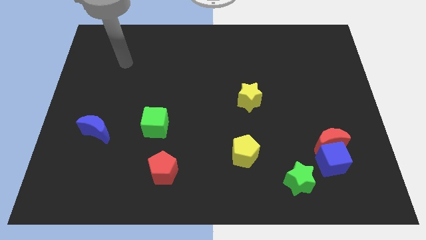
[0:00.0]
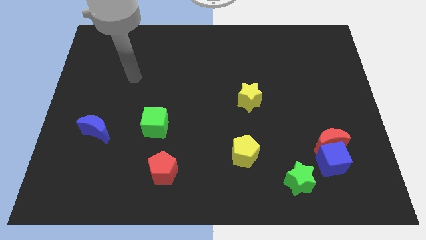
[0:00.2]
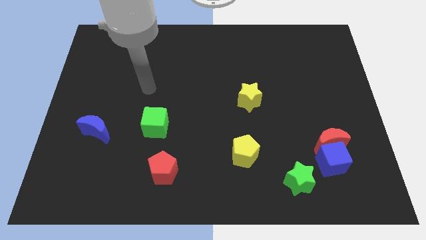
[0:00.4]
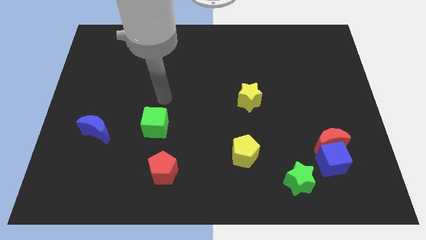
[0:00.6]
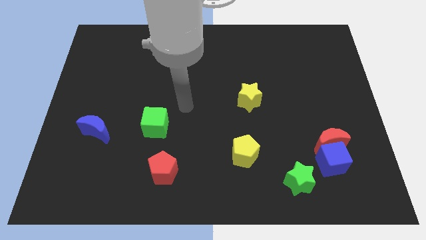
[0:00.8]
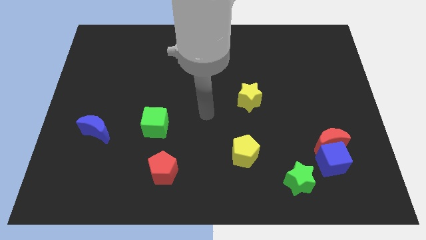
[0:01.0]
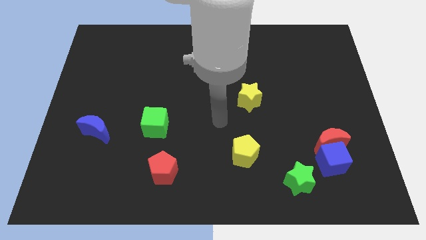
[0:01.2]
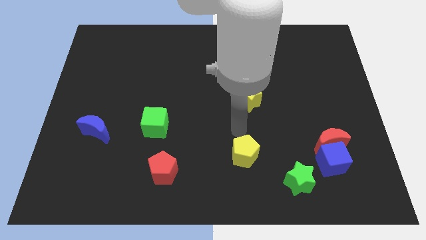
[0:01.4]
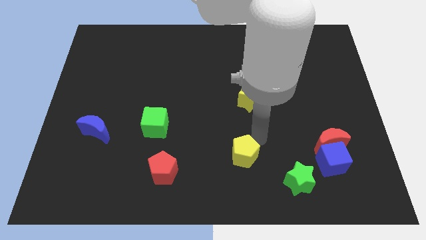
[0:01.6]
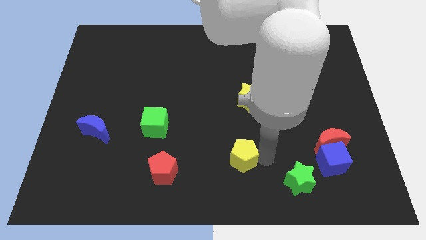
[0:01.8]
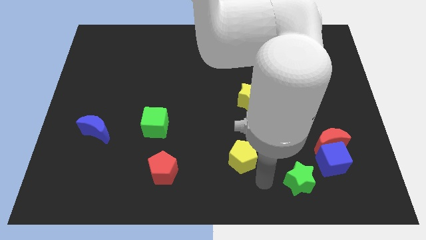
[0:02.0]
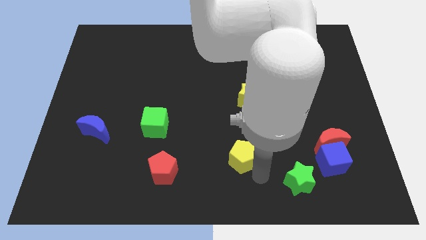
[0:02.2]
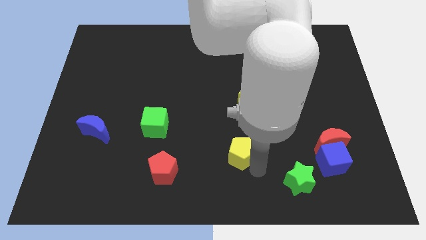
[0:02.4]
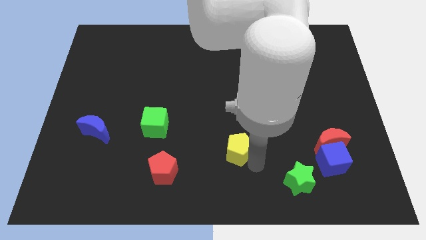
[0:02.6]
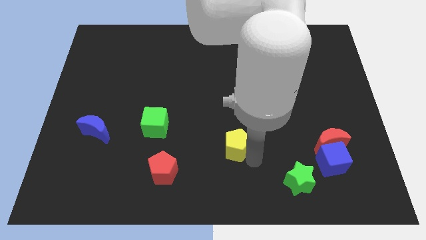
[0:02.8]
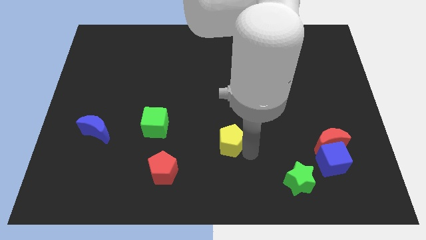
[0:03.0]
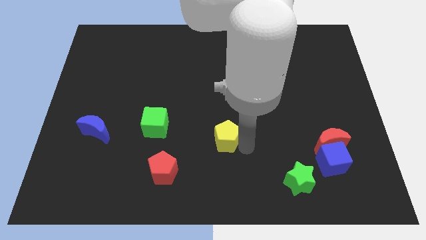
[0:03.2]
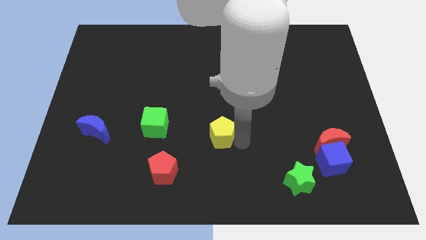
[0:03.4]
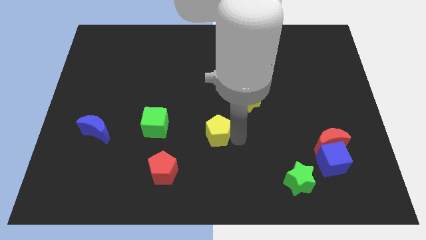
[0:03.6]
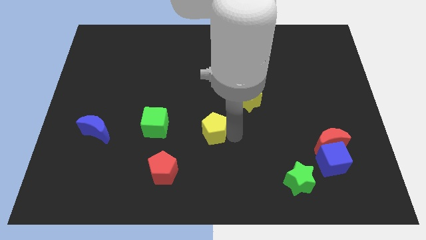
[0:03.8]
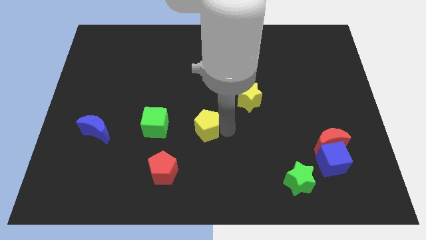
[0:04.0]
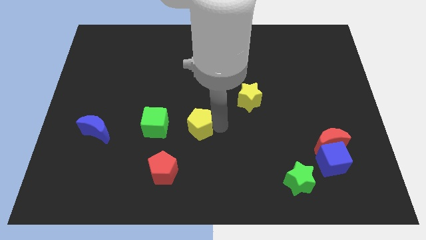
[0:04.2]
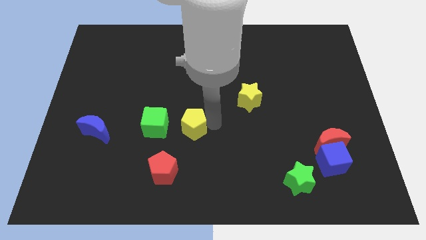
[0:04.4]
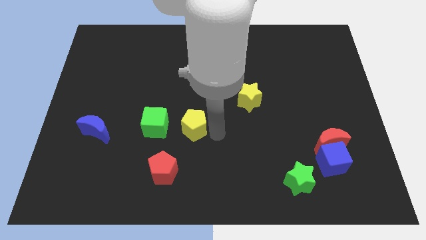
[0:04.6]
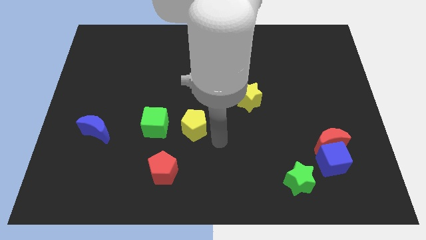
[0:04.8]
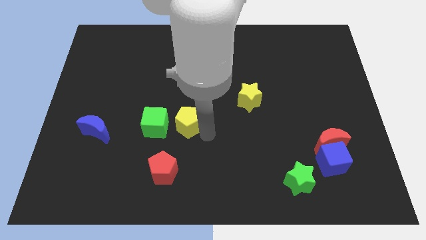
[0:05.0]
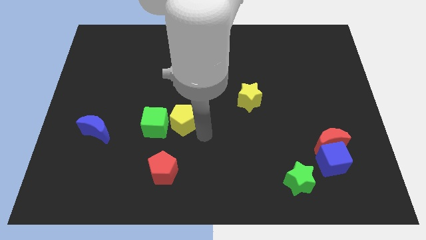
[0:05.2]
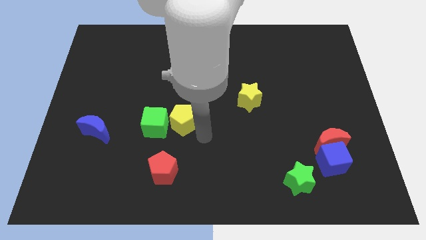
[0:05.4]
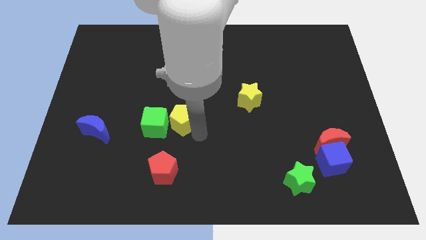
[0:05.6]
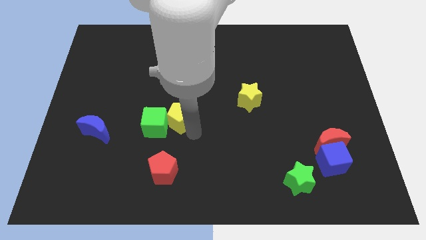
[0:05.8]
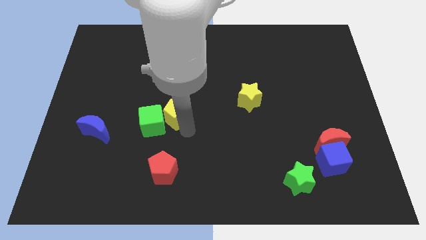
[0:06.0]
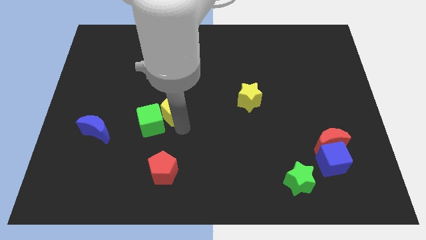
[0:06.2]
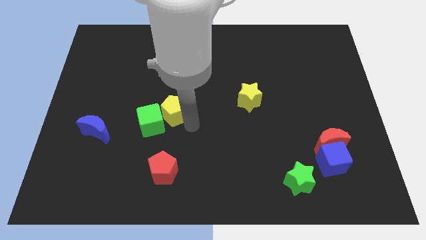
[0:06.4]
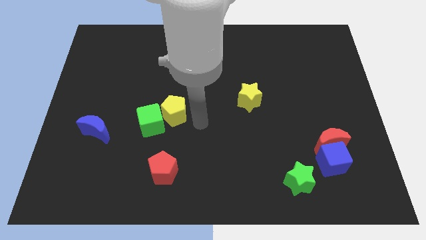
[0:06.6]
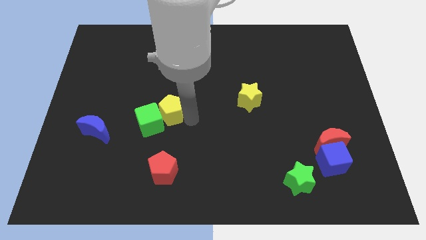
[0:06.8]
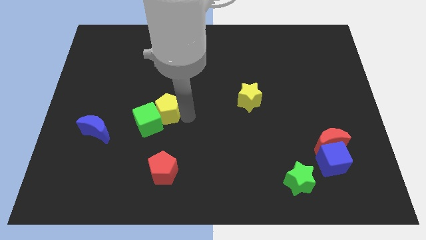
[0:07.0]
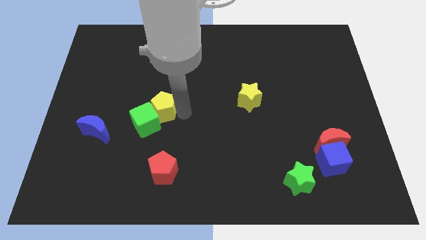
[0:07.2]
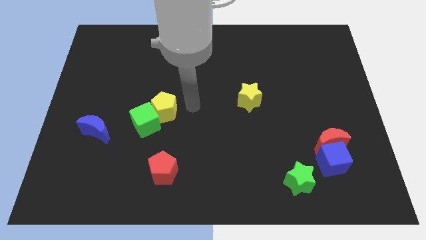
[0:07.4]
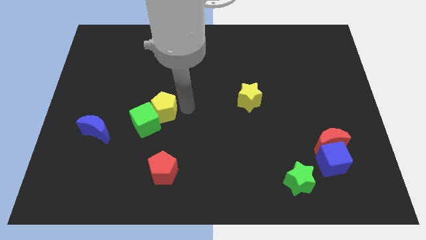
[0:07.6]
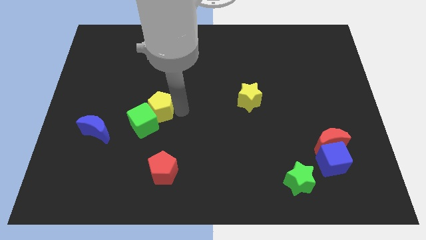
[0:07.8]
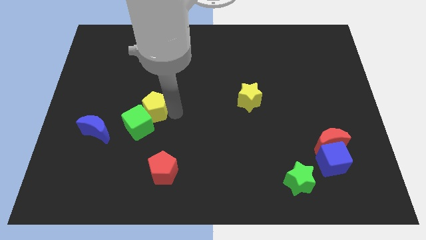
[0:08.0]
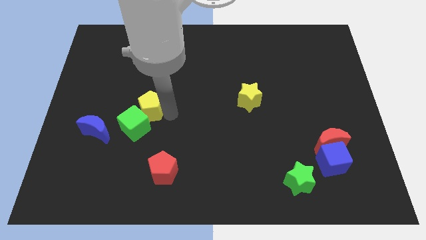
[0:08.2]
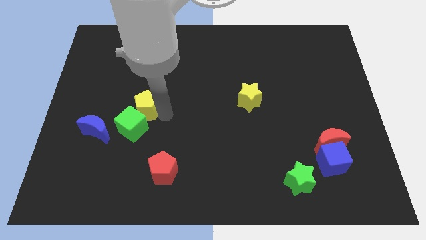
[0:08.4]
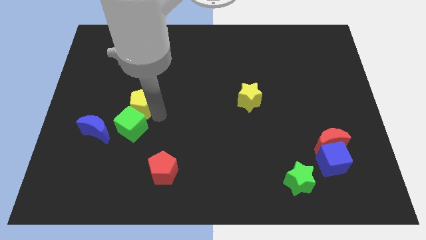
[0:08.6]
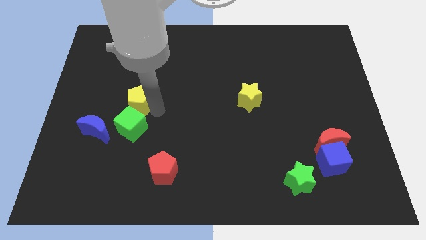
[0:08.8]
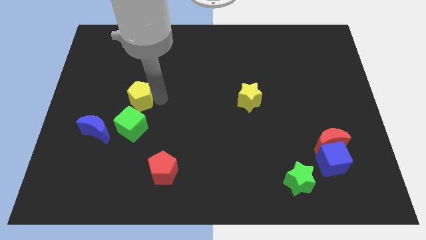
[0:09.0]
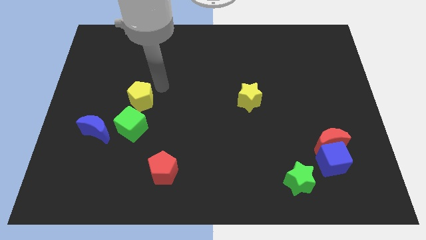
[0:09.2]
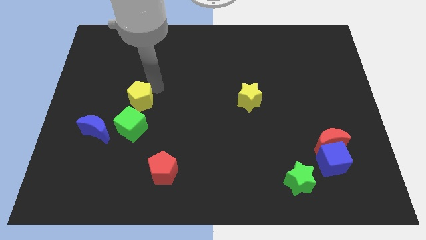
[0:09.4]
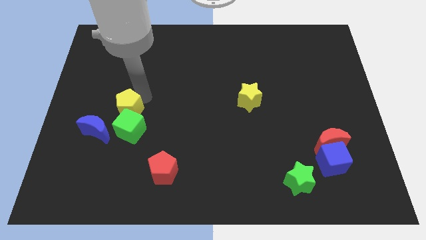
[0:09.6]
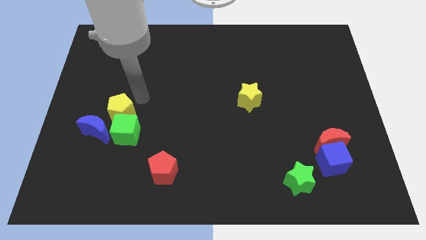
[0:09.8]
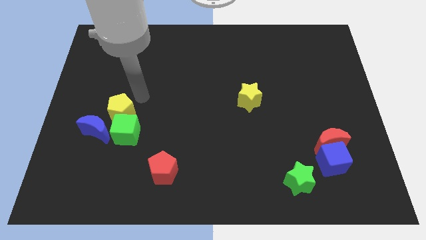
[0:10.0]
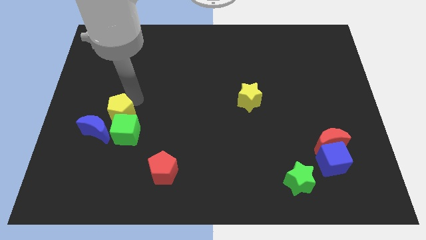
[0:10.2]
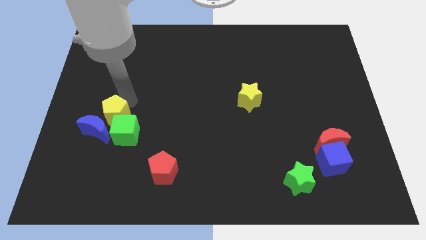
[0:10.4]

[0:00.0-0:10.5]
slide the yellow pentagon close to the blue moon

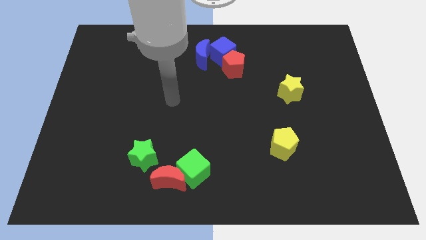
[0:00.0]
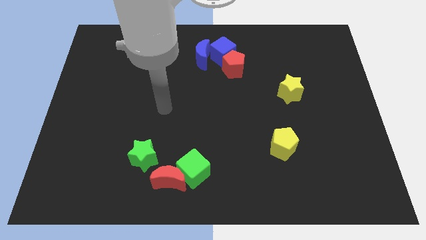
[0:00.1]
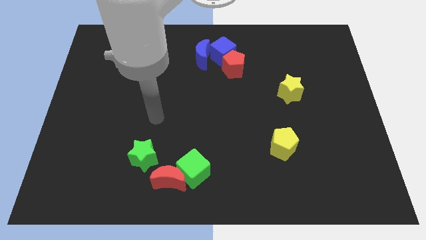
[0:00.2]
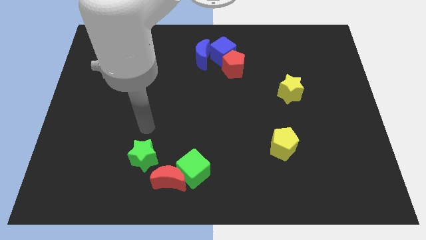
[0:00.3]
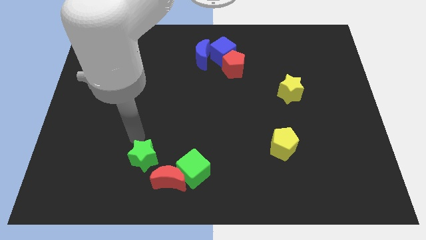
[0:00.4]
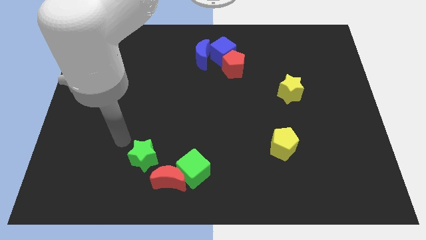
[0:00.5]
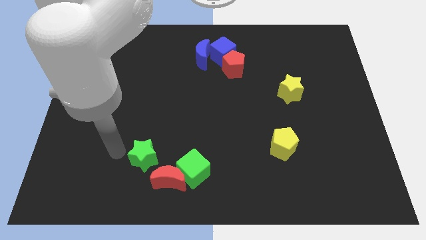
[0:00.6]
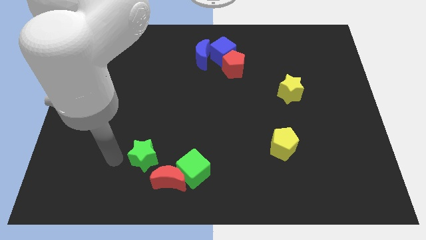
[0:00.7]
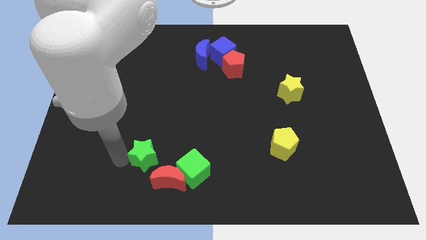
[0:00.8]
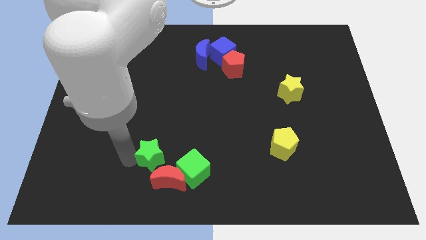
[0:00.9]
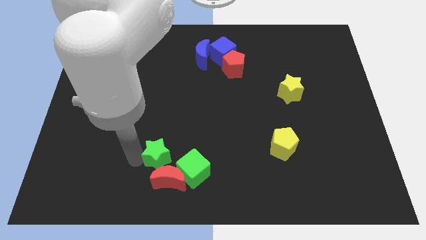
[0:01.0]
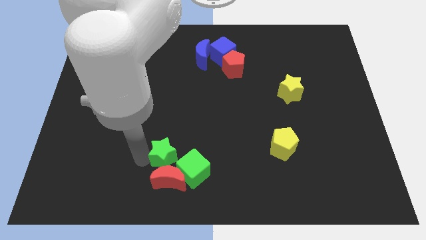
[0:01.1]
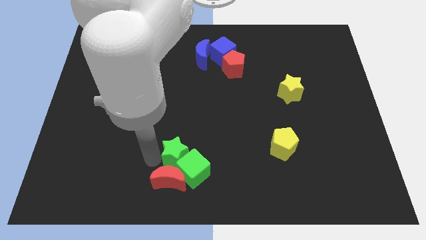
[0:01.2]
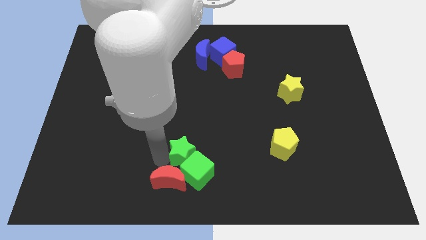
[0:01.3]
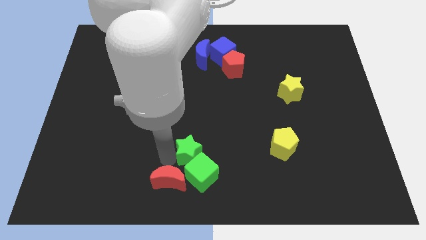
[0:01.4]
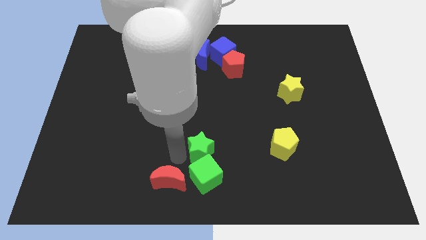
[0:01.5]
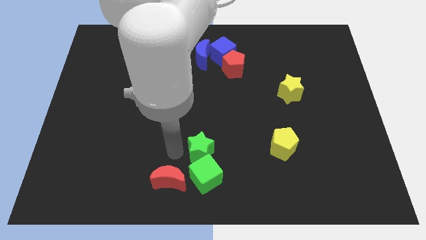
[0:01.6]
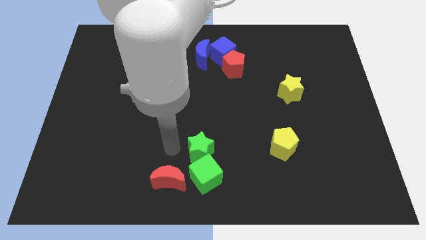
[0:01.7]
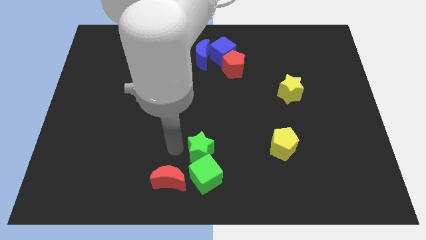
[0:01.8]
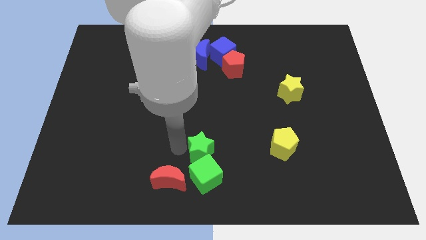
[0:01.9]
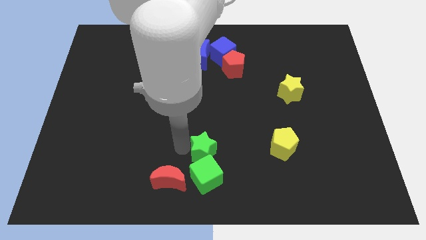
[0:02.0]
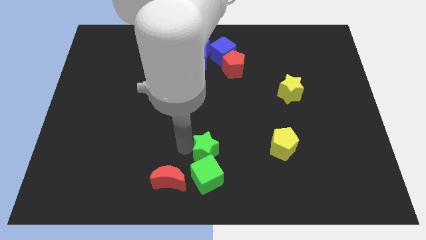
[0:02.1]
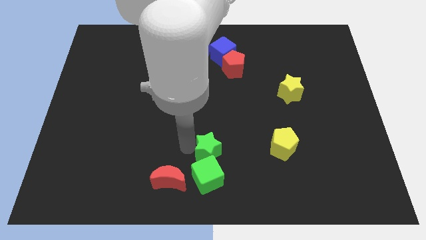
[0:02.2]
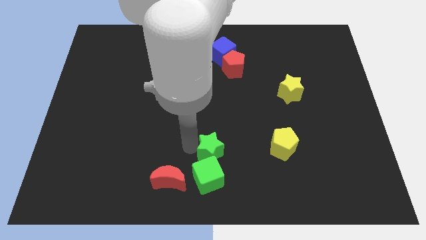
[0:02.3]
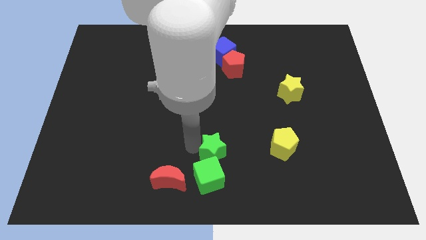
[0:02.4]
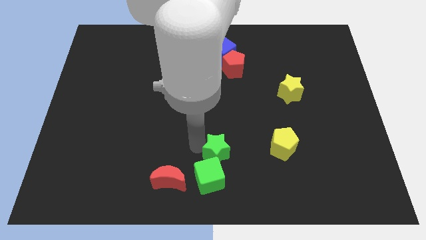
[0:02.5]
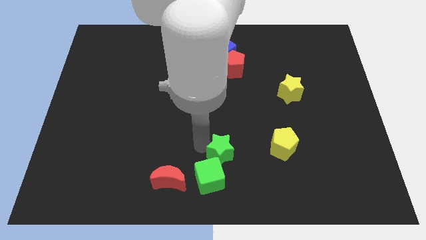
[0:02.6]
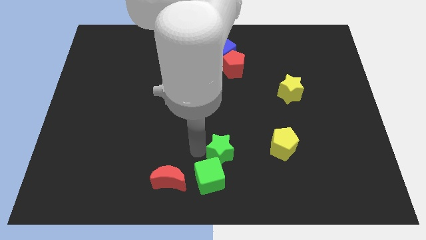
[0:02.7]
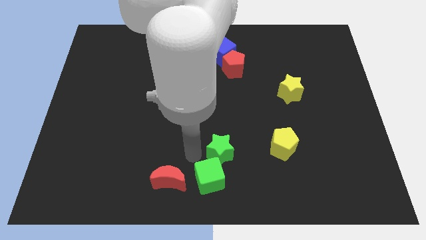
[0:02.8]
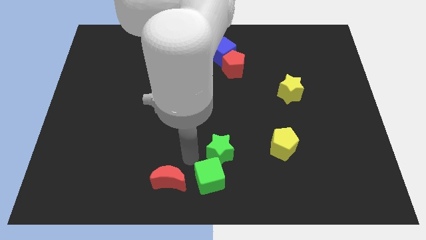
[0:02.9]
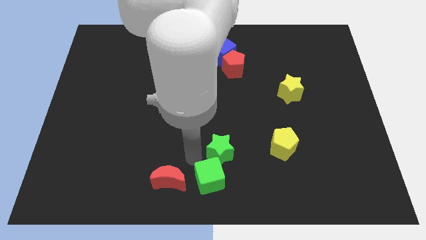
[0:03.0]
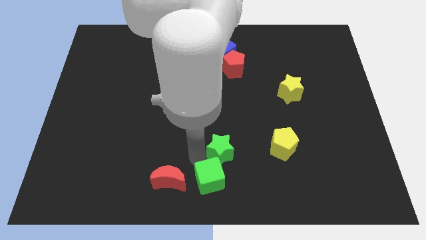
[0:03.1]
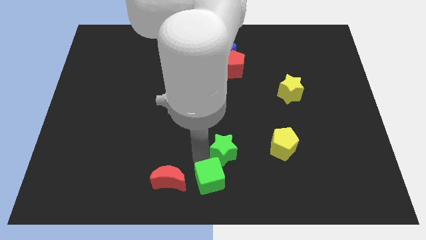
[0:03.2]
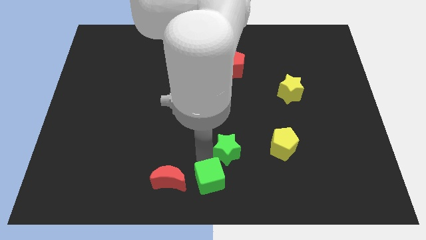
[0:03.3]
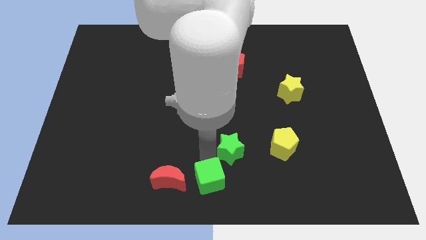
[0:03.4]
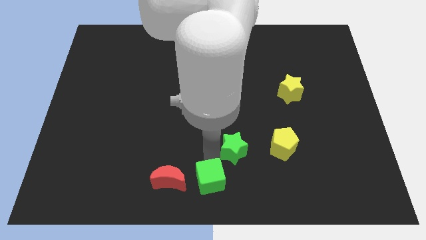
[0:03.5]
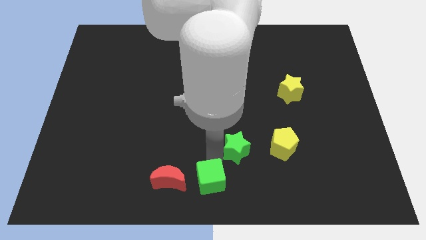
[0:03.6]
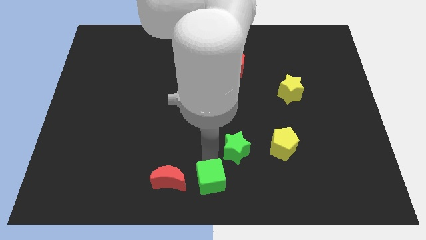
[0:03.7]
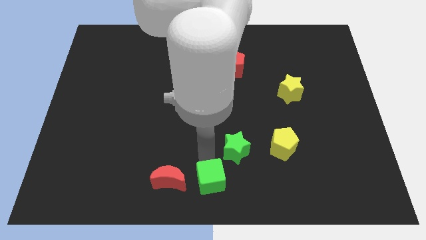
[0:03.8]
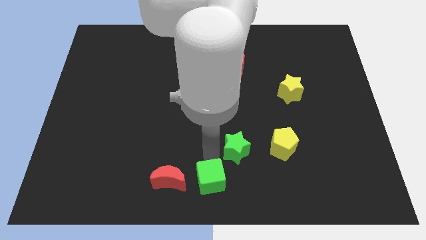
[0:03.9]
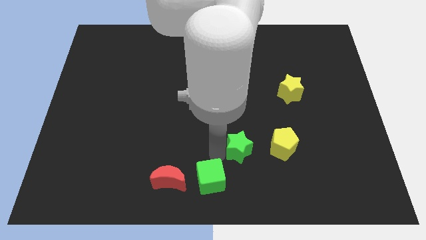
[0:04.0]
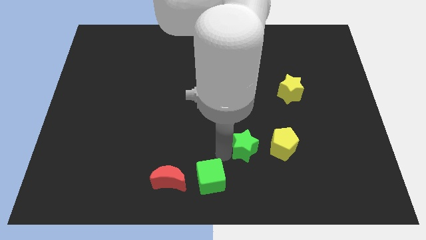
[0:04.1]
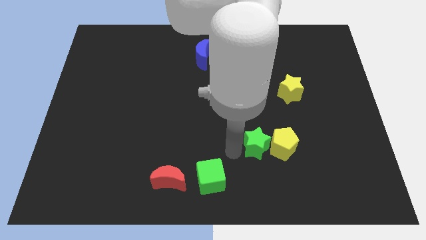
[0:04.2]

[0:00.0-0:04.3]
move the green star next to the yellow pentagon
